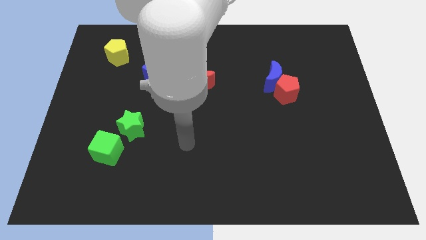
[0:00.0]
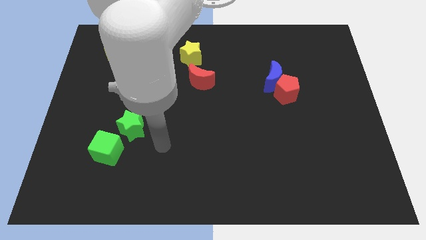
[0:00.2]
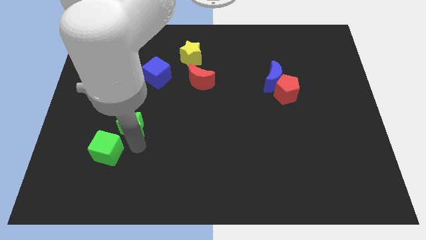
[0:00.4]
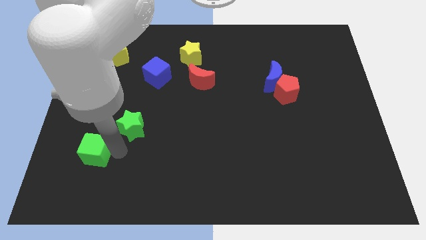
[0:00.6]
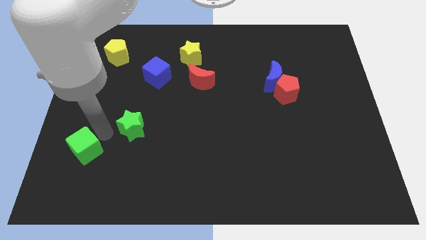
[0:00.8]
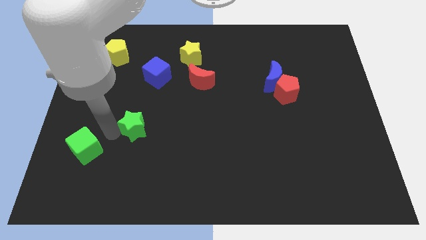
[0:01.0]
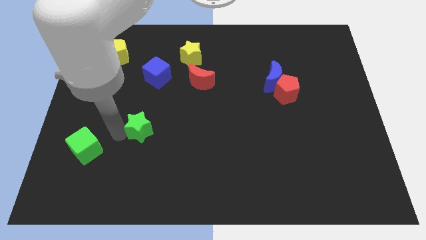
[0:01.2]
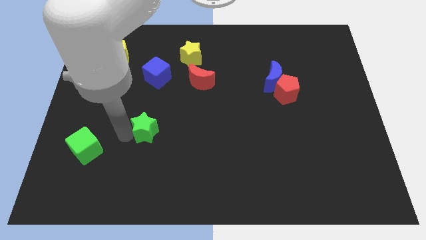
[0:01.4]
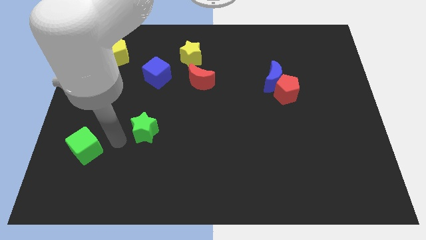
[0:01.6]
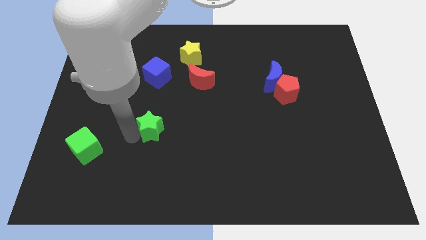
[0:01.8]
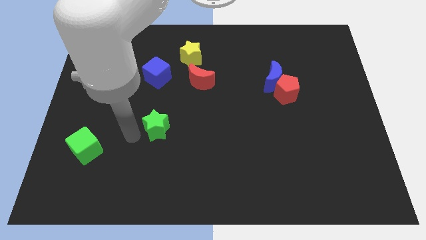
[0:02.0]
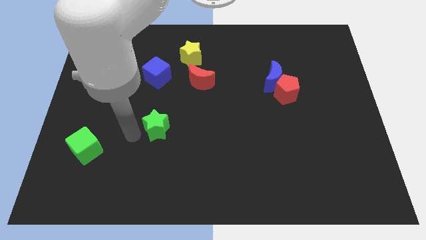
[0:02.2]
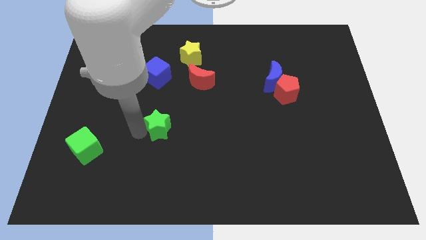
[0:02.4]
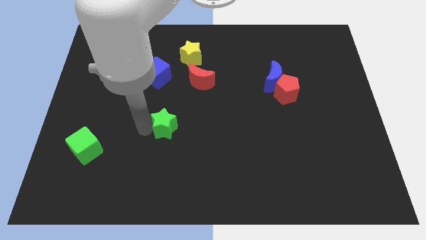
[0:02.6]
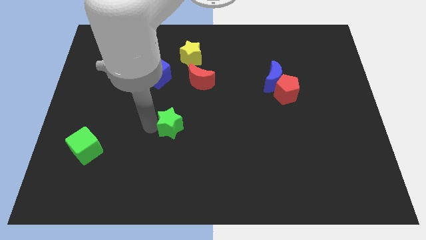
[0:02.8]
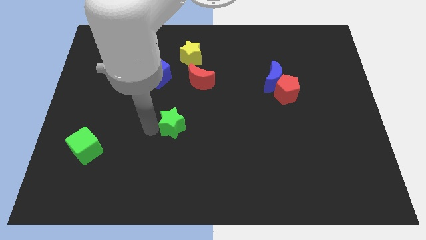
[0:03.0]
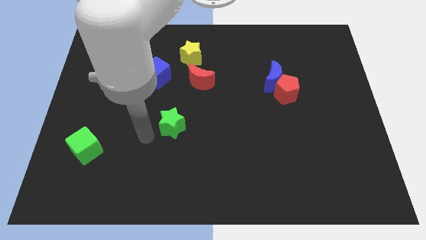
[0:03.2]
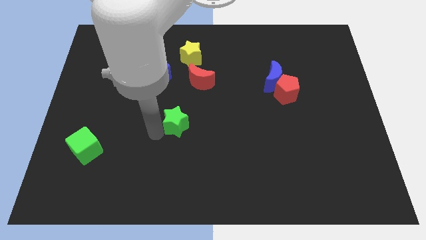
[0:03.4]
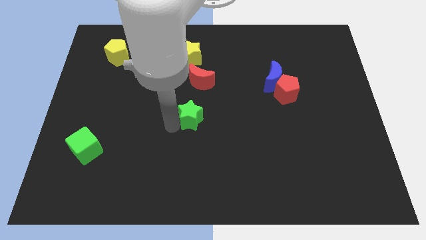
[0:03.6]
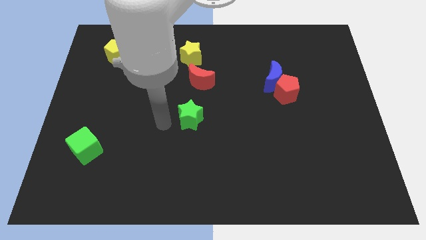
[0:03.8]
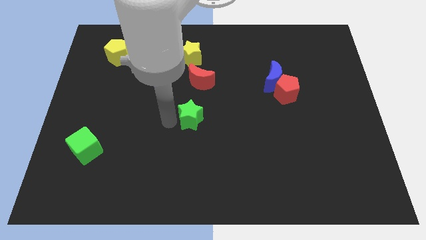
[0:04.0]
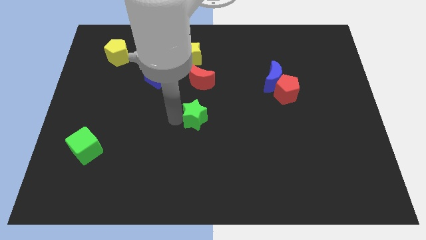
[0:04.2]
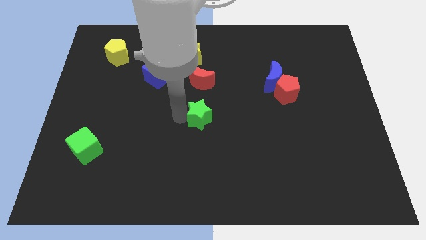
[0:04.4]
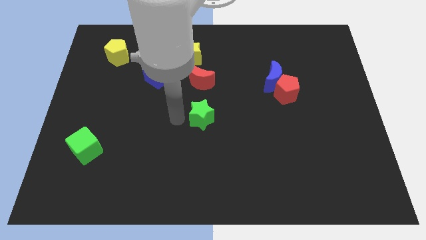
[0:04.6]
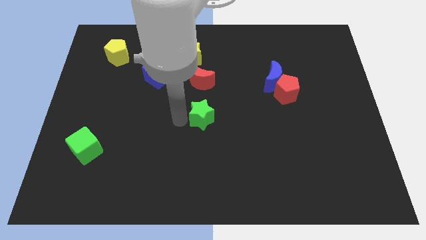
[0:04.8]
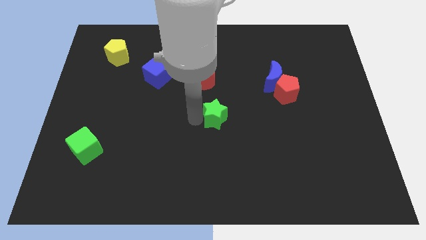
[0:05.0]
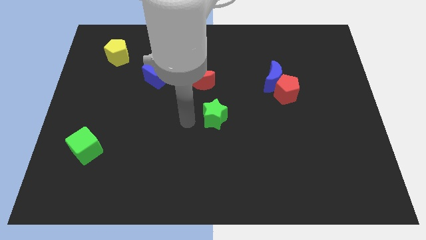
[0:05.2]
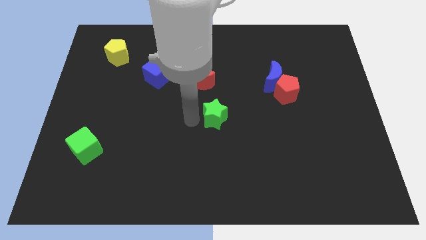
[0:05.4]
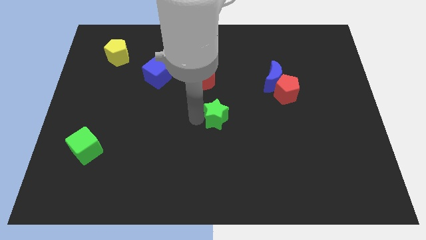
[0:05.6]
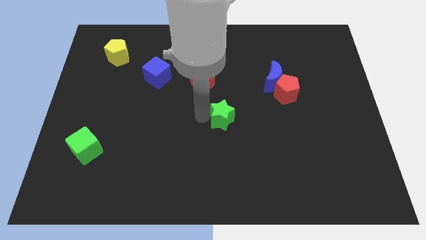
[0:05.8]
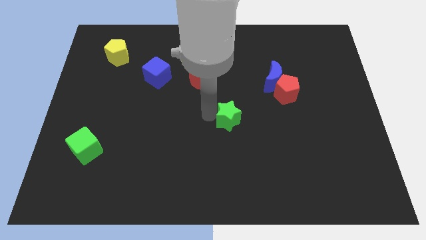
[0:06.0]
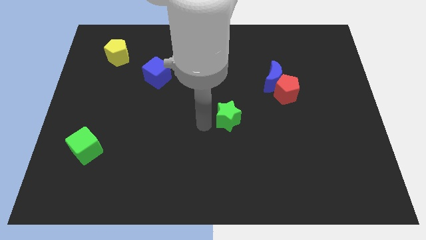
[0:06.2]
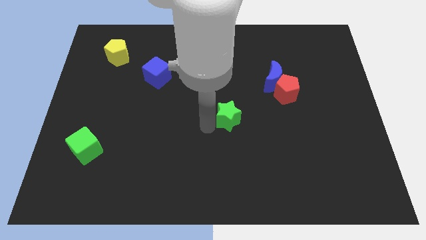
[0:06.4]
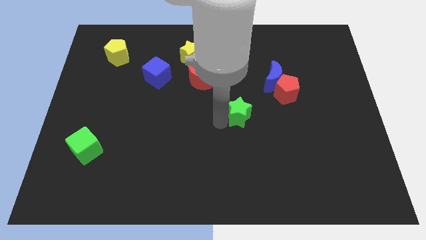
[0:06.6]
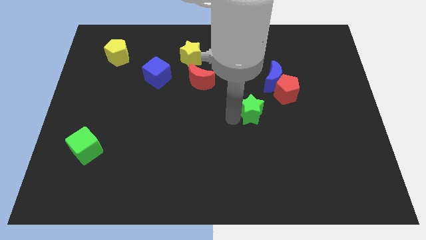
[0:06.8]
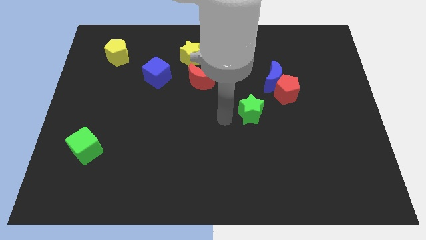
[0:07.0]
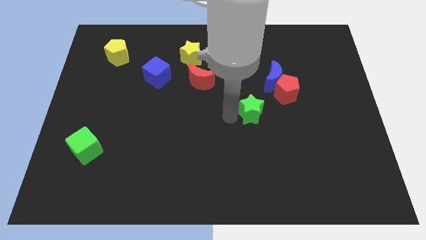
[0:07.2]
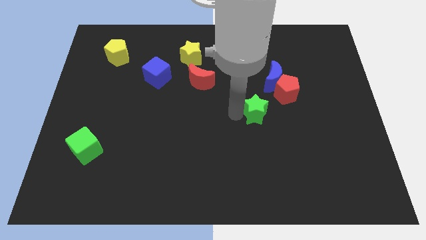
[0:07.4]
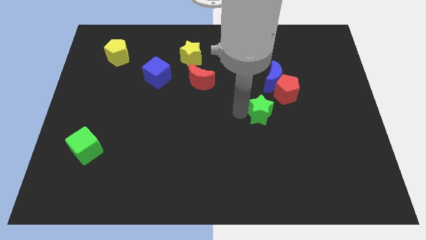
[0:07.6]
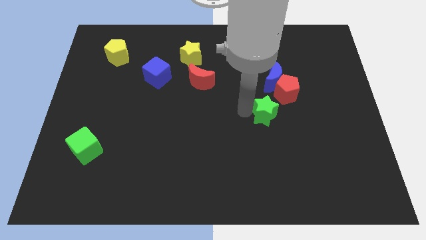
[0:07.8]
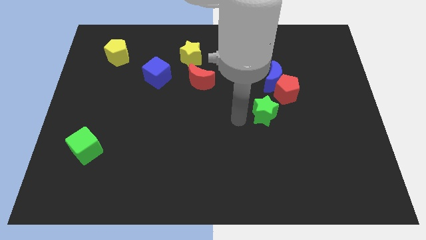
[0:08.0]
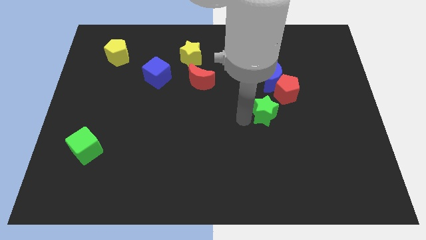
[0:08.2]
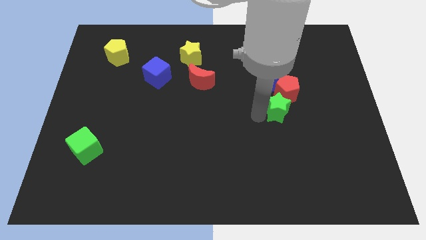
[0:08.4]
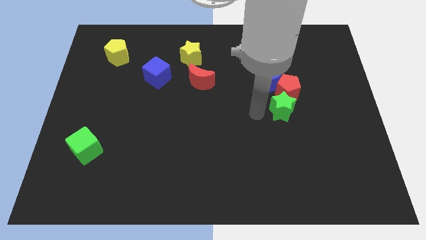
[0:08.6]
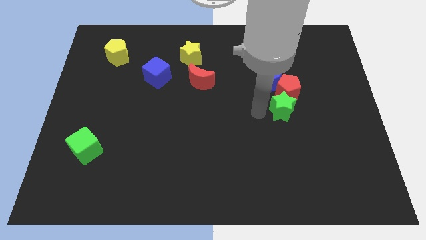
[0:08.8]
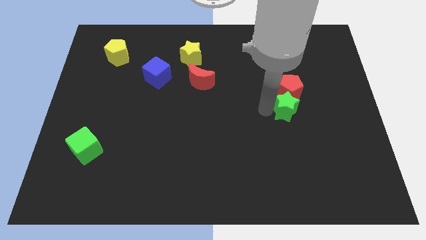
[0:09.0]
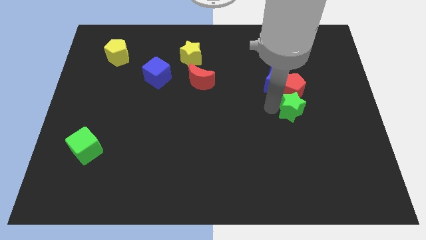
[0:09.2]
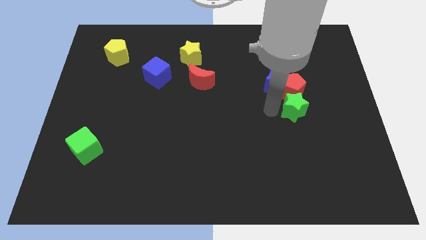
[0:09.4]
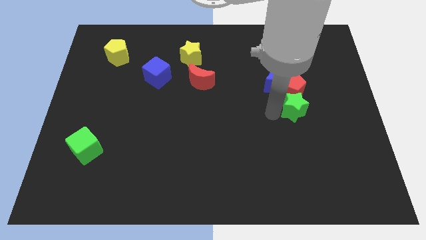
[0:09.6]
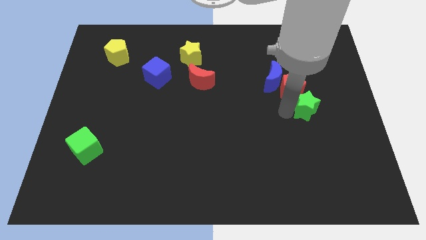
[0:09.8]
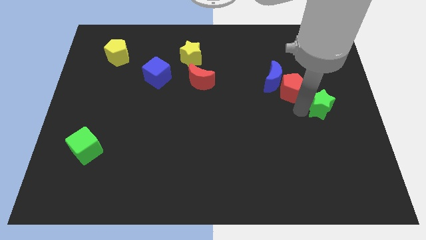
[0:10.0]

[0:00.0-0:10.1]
slide the green star to the right side

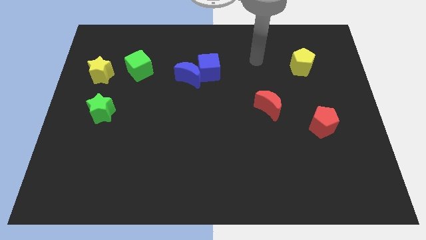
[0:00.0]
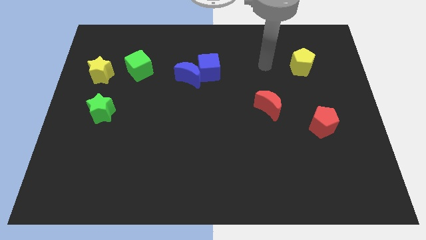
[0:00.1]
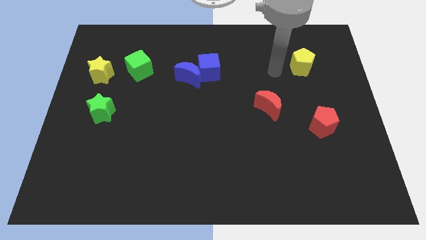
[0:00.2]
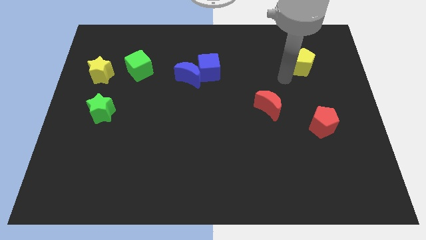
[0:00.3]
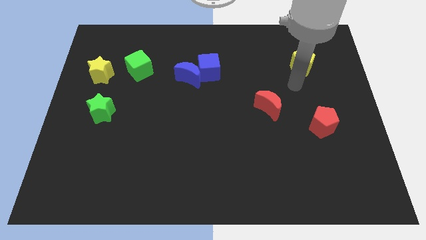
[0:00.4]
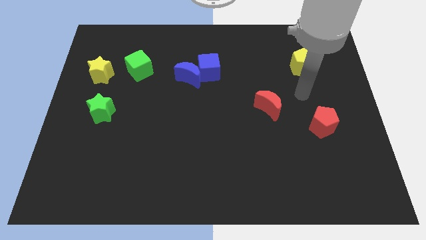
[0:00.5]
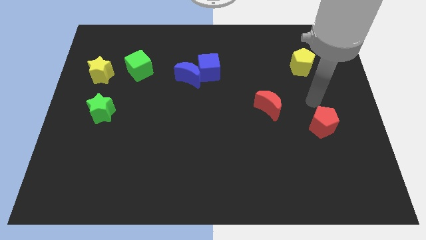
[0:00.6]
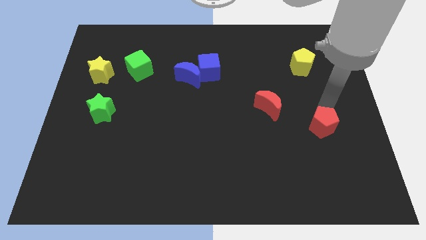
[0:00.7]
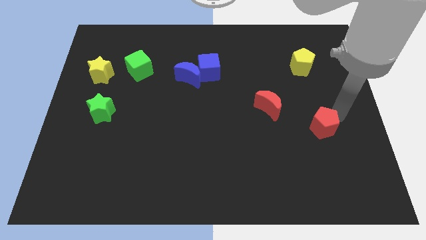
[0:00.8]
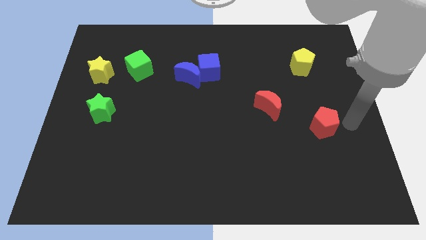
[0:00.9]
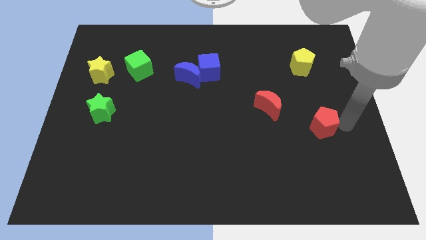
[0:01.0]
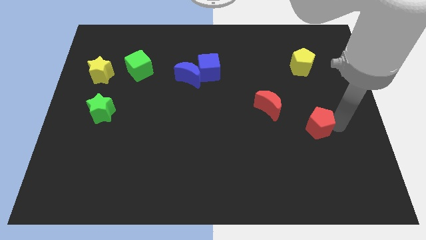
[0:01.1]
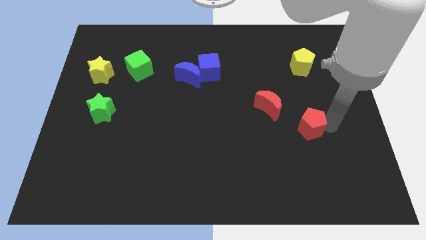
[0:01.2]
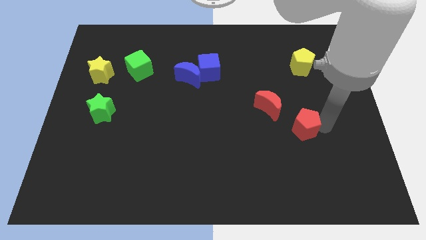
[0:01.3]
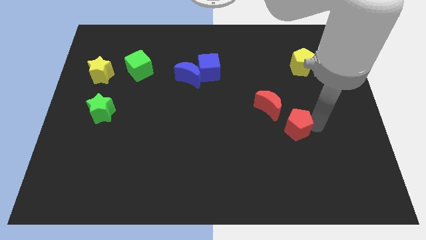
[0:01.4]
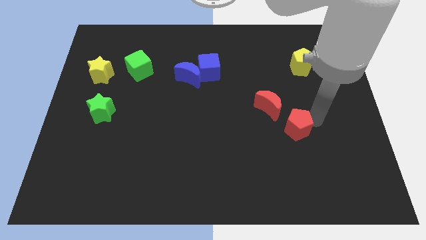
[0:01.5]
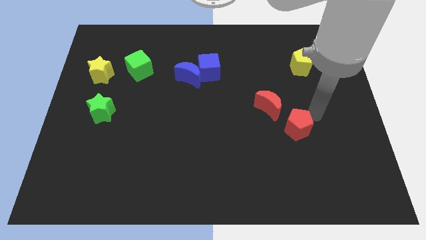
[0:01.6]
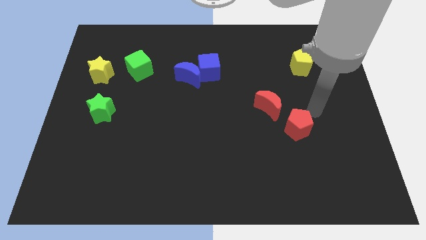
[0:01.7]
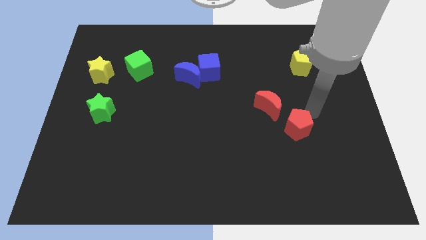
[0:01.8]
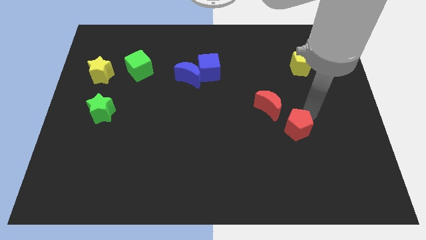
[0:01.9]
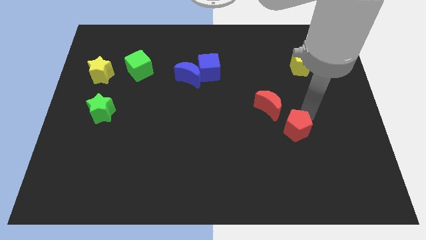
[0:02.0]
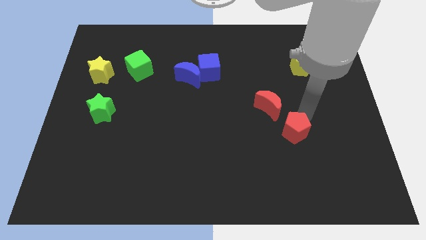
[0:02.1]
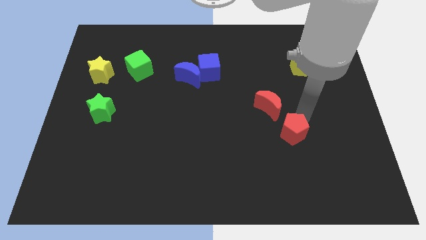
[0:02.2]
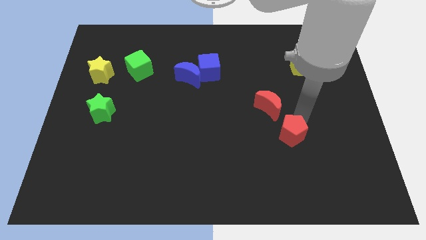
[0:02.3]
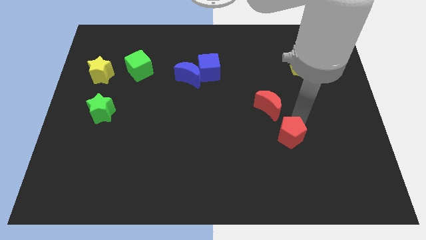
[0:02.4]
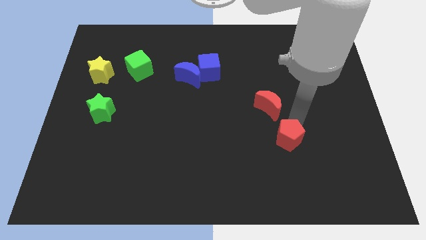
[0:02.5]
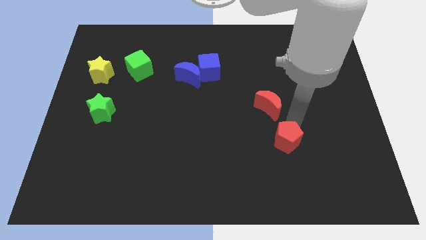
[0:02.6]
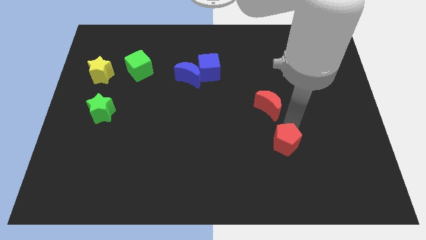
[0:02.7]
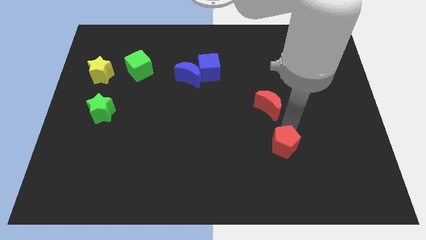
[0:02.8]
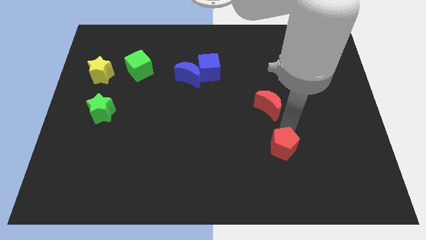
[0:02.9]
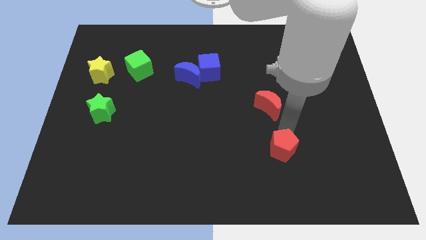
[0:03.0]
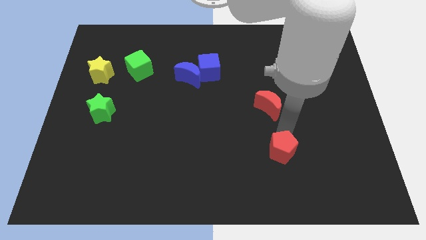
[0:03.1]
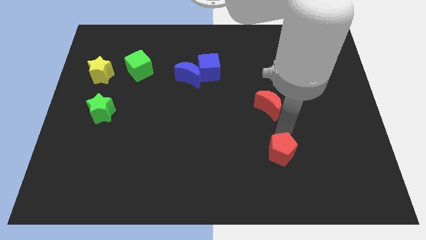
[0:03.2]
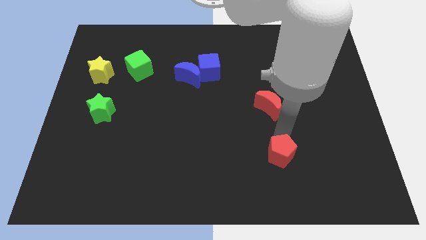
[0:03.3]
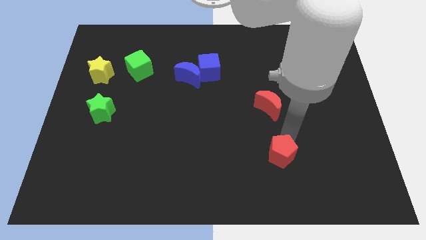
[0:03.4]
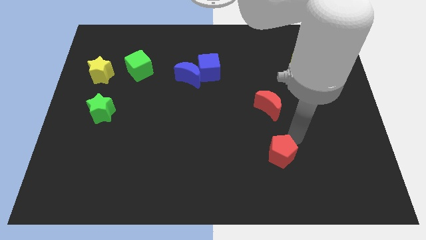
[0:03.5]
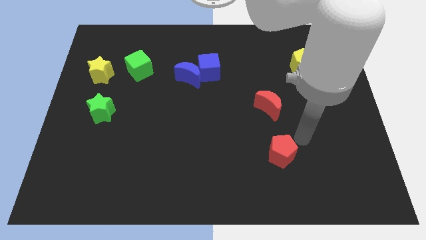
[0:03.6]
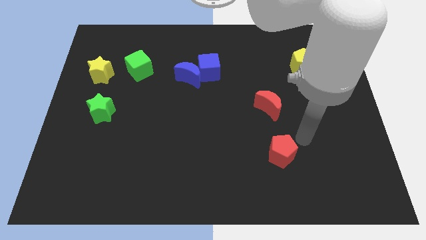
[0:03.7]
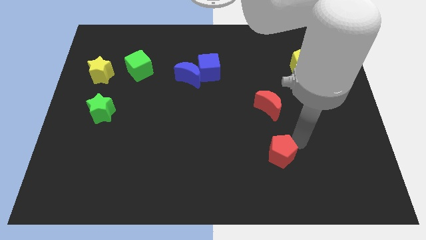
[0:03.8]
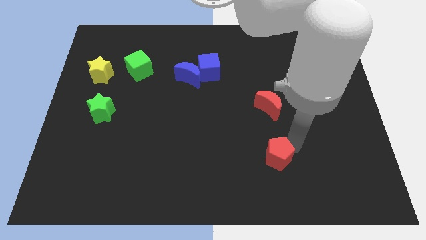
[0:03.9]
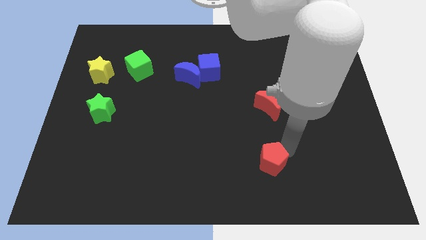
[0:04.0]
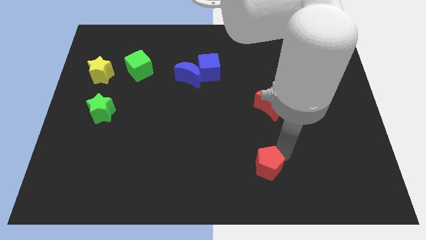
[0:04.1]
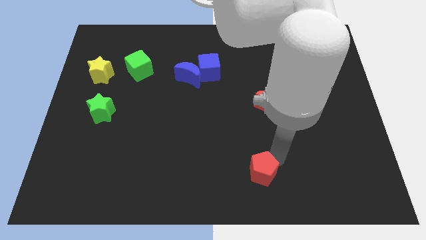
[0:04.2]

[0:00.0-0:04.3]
put the red pentagon to the bottom side
